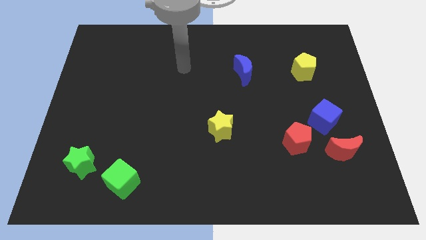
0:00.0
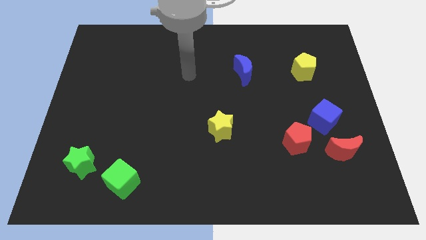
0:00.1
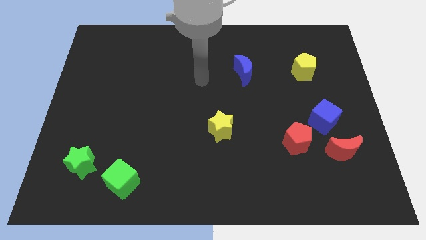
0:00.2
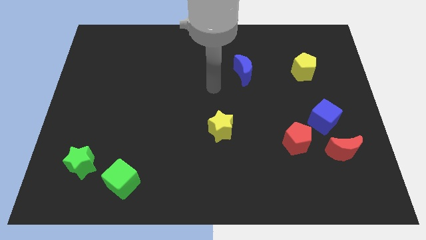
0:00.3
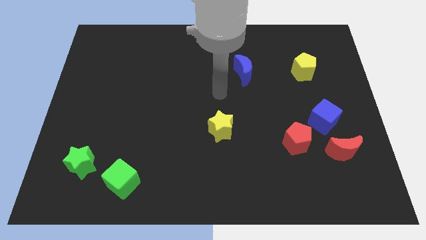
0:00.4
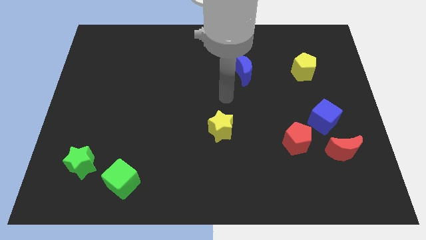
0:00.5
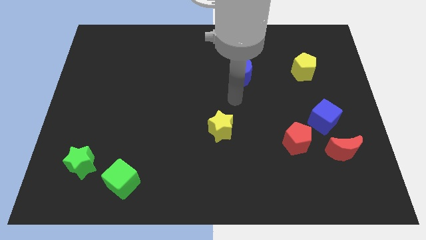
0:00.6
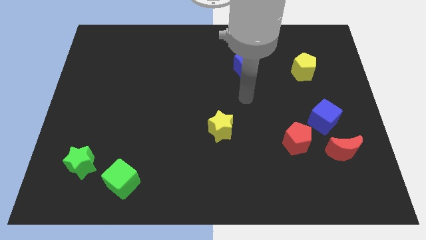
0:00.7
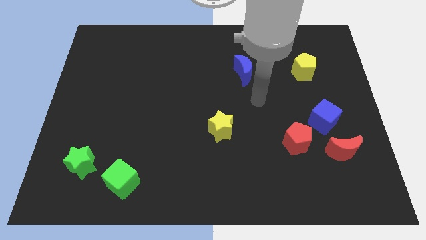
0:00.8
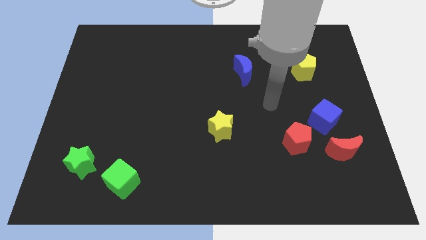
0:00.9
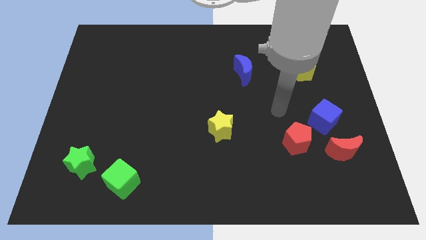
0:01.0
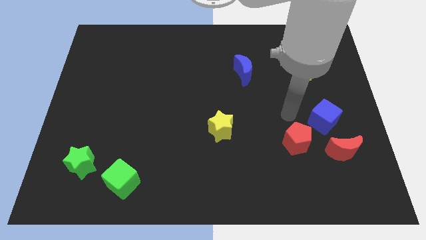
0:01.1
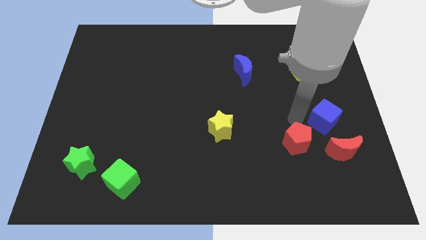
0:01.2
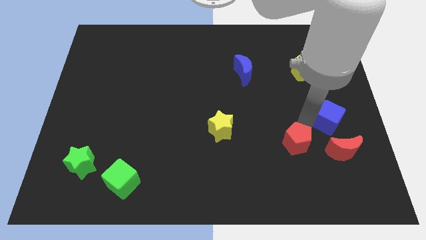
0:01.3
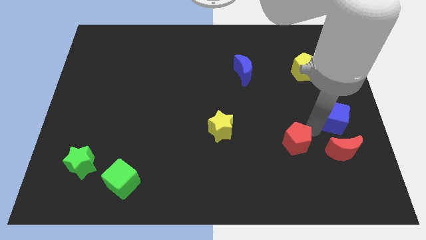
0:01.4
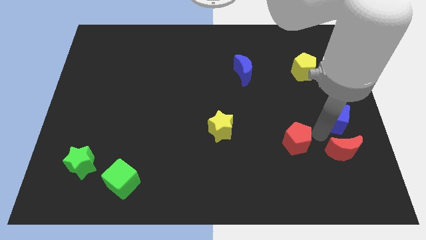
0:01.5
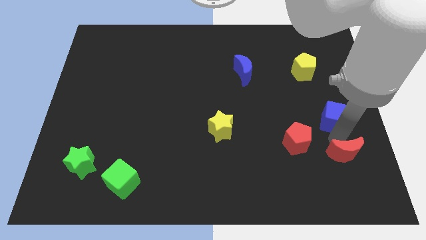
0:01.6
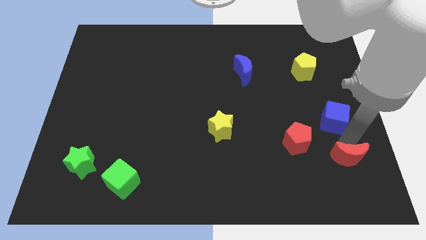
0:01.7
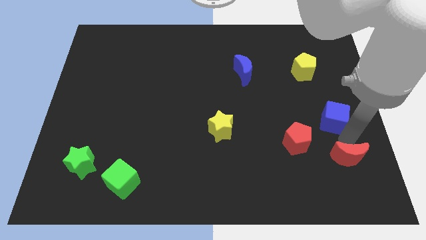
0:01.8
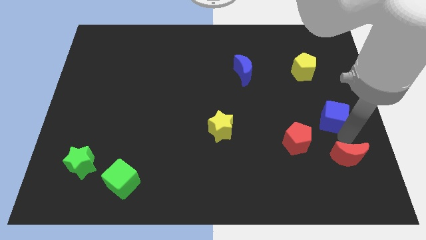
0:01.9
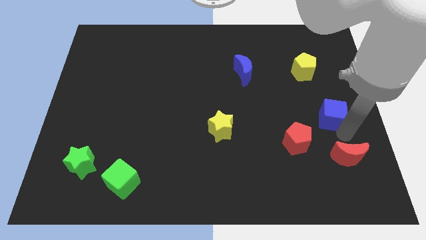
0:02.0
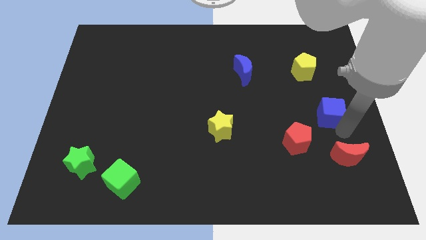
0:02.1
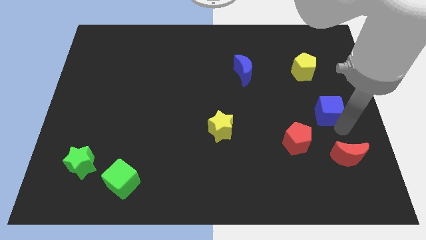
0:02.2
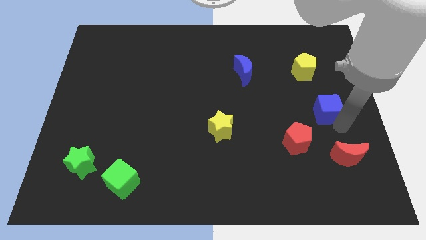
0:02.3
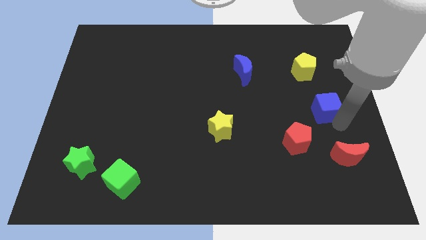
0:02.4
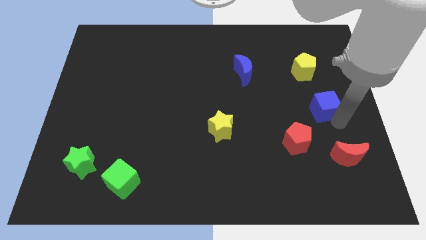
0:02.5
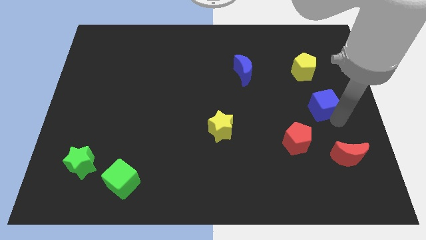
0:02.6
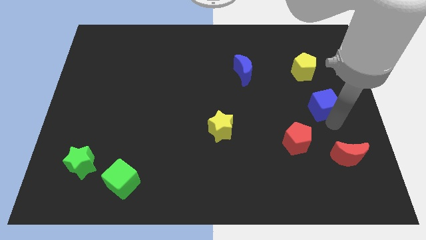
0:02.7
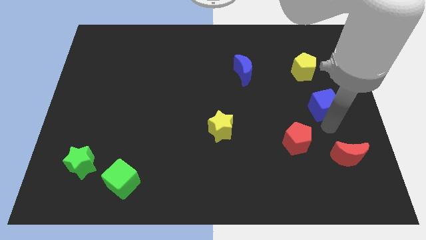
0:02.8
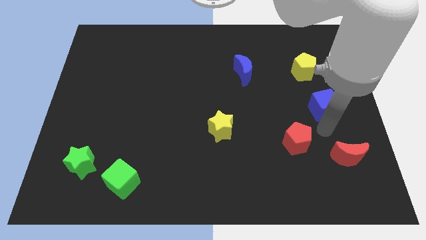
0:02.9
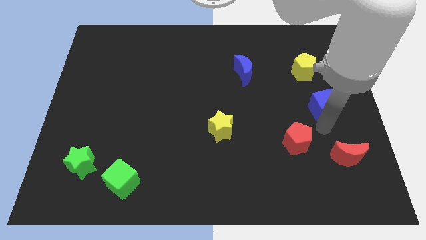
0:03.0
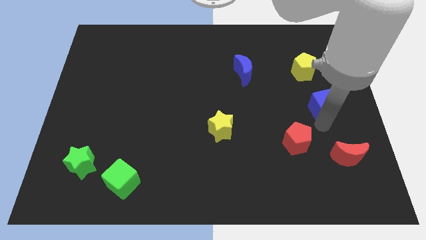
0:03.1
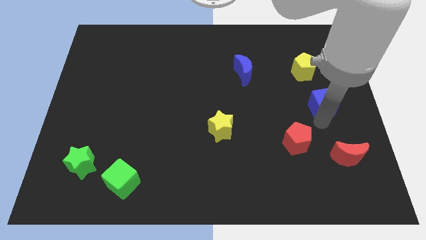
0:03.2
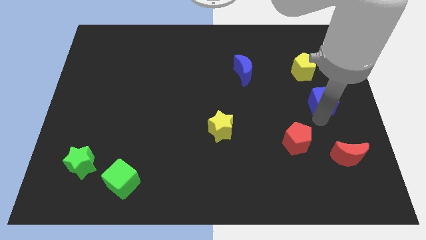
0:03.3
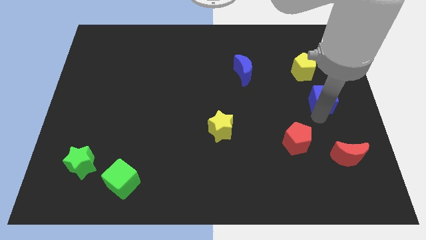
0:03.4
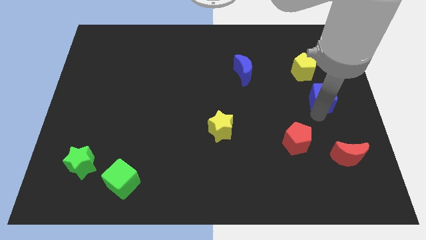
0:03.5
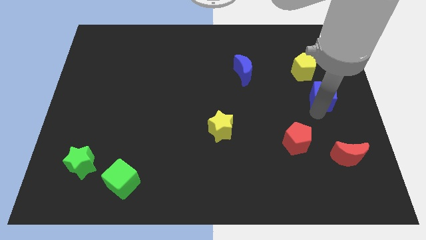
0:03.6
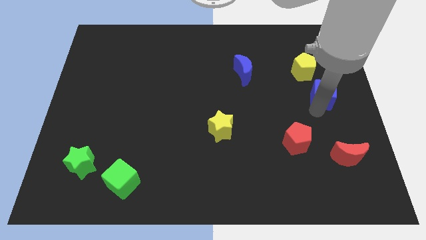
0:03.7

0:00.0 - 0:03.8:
move the blue cube upwards a little

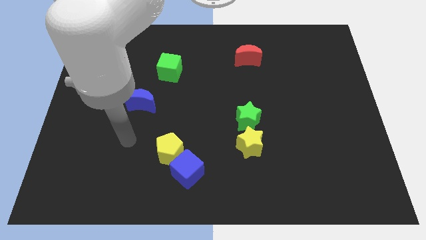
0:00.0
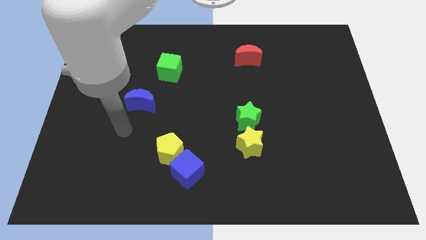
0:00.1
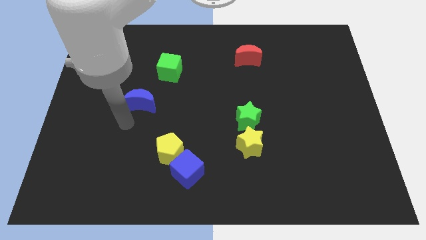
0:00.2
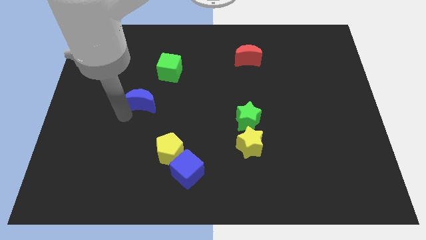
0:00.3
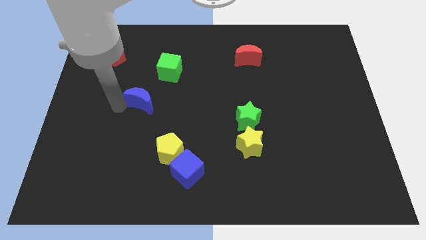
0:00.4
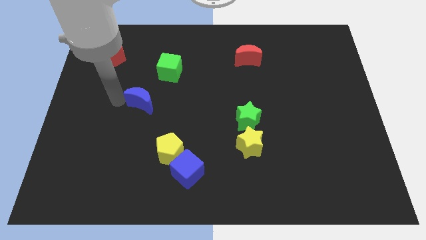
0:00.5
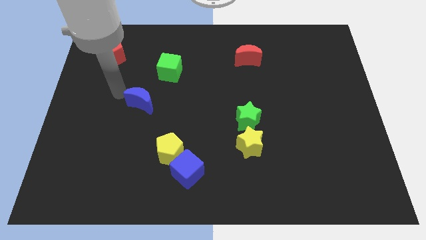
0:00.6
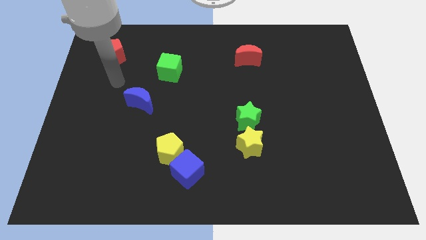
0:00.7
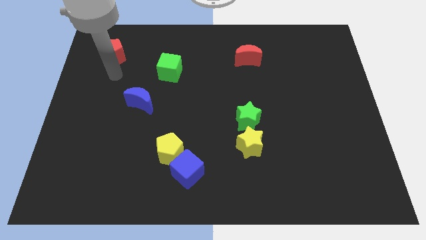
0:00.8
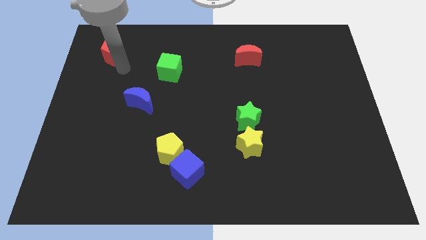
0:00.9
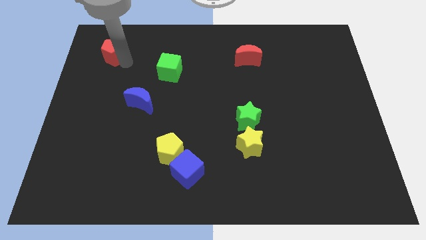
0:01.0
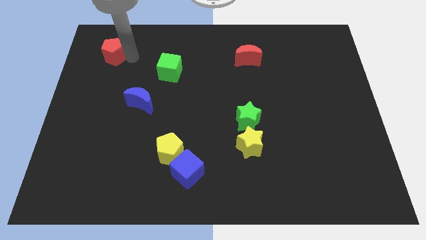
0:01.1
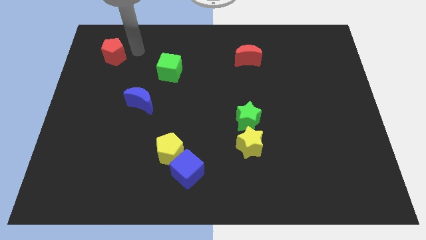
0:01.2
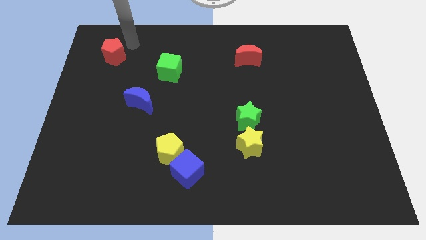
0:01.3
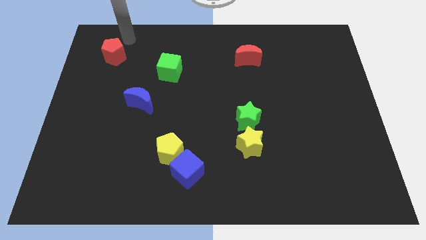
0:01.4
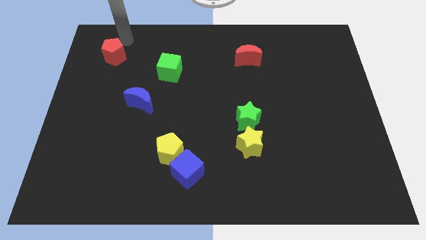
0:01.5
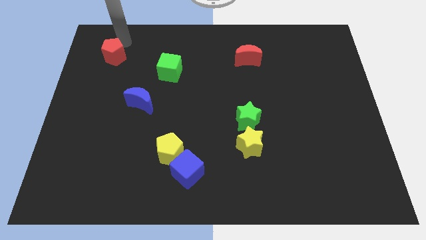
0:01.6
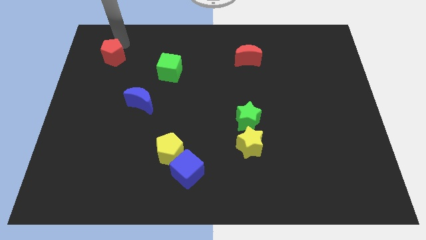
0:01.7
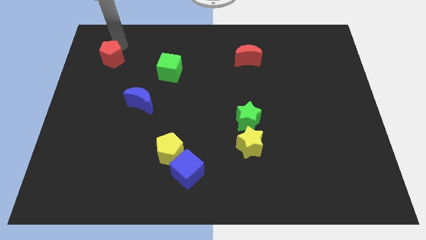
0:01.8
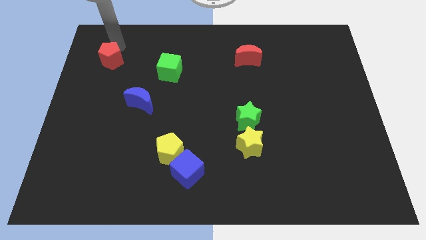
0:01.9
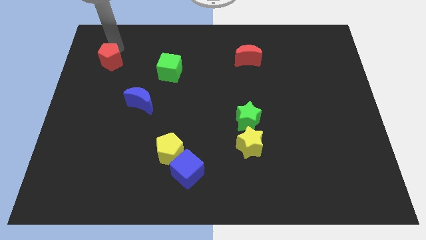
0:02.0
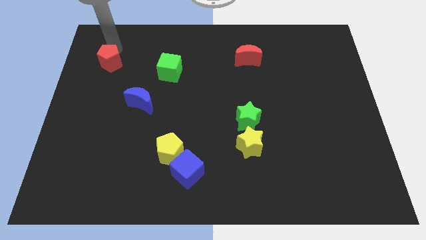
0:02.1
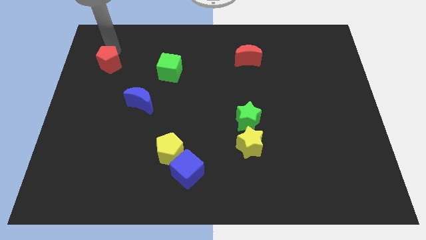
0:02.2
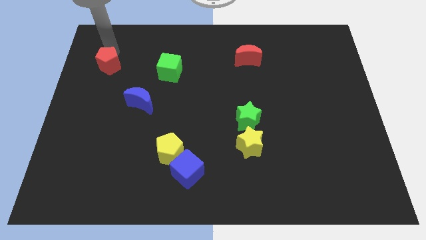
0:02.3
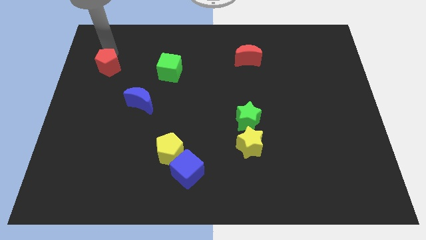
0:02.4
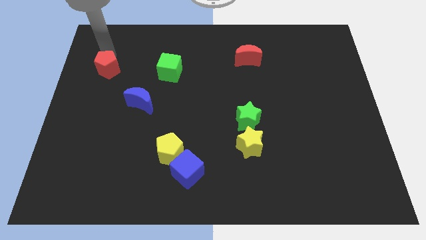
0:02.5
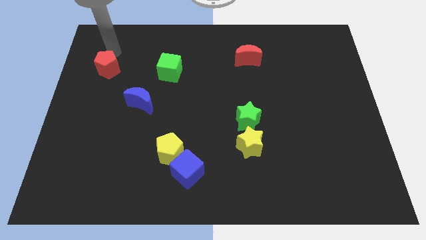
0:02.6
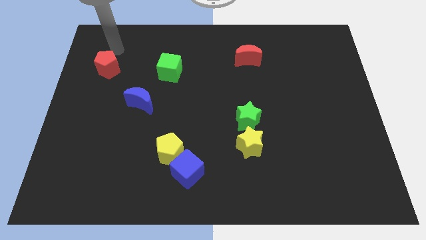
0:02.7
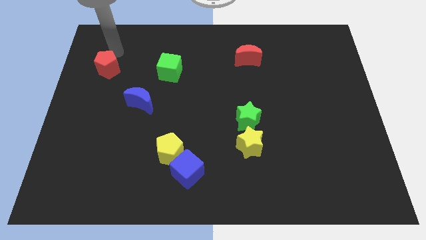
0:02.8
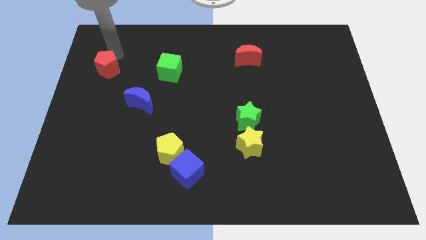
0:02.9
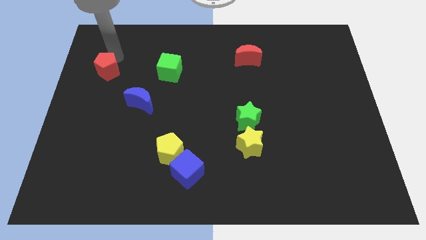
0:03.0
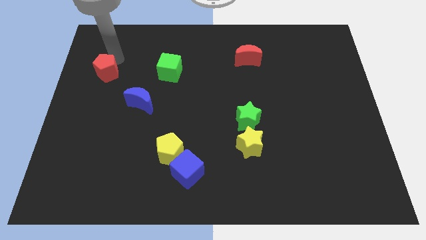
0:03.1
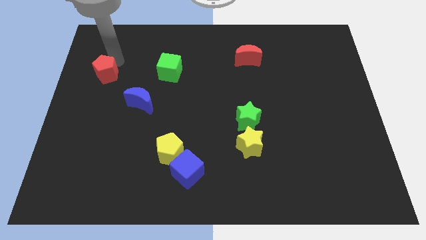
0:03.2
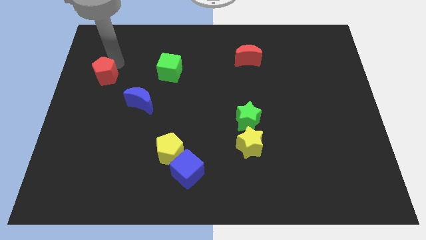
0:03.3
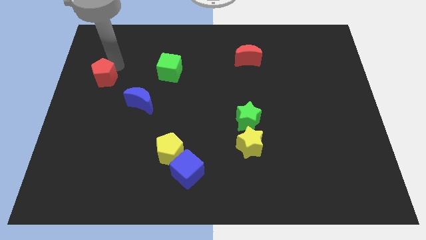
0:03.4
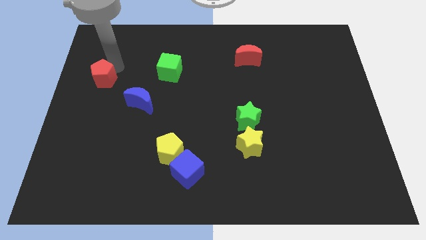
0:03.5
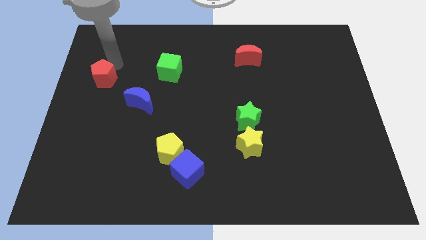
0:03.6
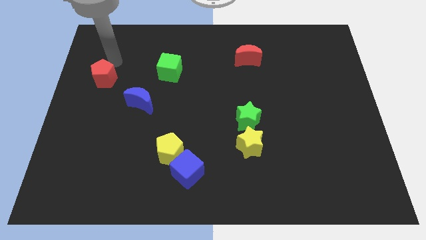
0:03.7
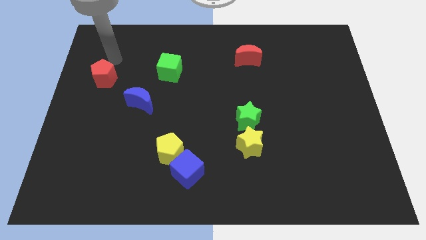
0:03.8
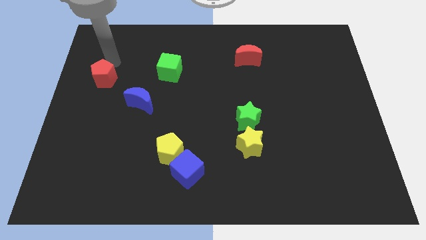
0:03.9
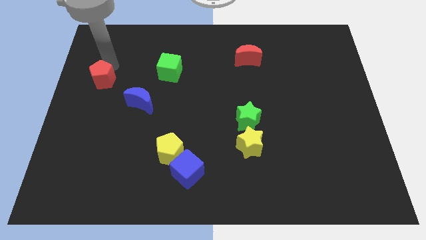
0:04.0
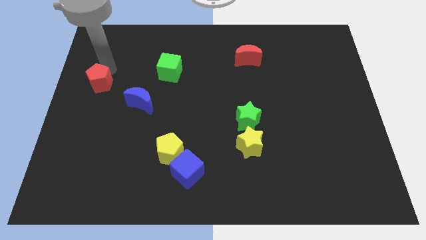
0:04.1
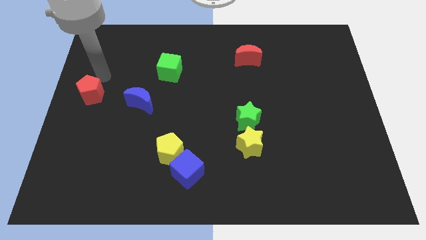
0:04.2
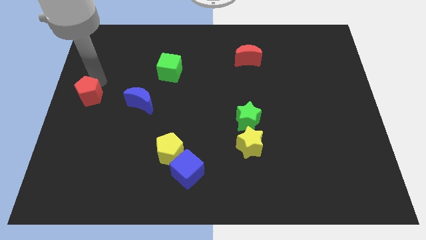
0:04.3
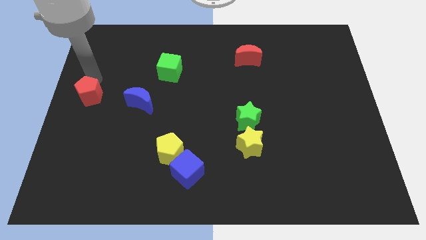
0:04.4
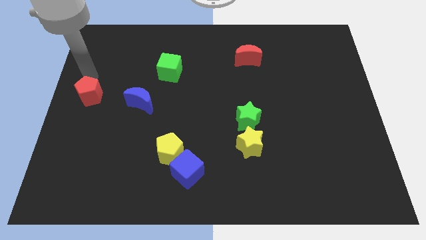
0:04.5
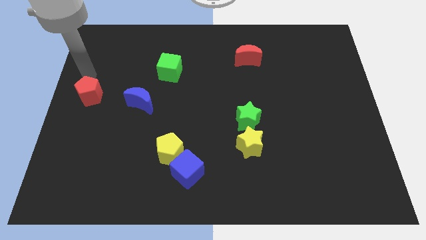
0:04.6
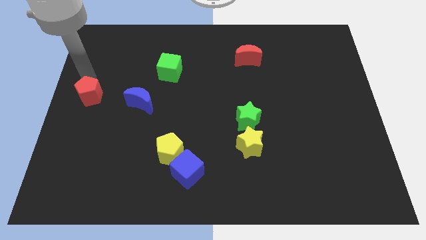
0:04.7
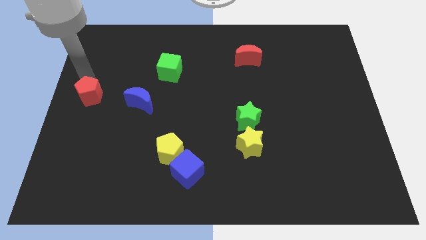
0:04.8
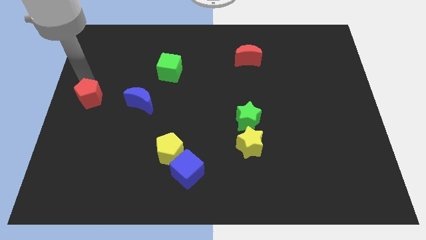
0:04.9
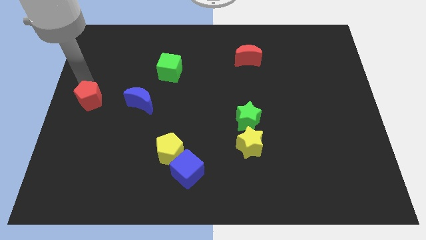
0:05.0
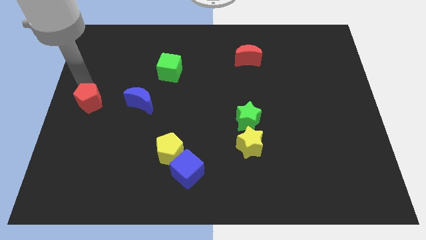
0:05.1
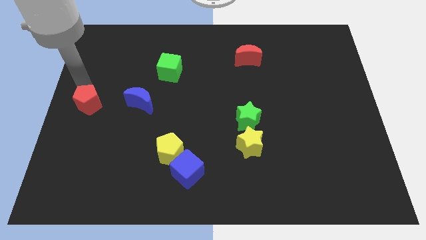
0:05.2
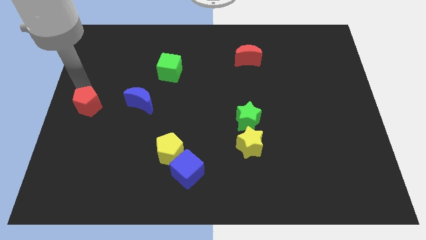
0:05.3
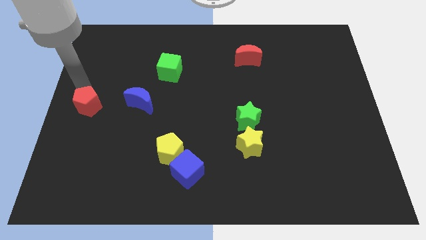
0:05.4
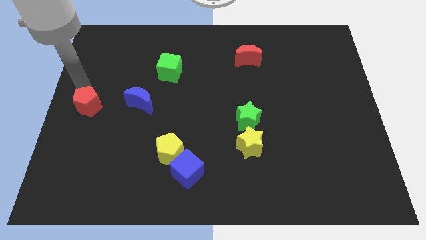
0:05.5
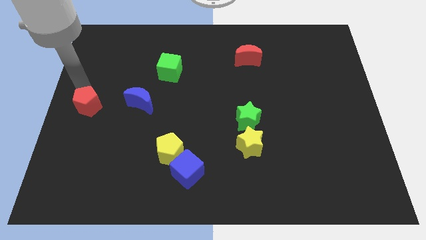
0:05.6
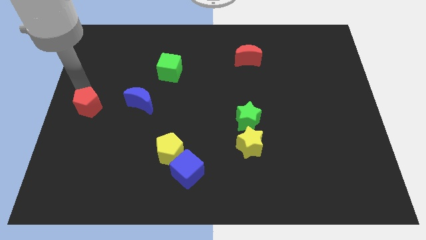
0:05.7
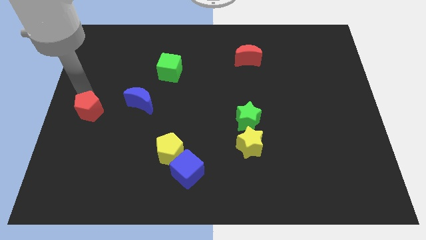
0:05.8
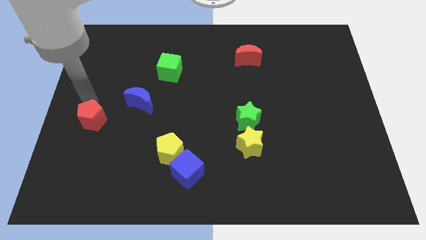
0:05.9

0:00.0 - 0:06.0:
move the red pentagon downwards
